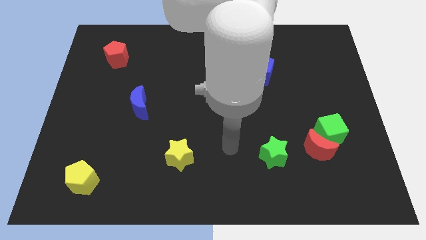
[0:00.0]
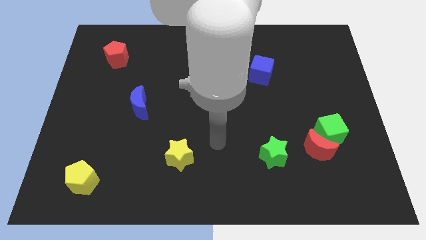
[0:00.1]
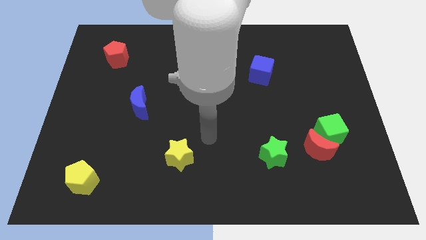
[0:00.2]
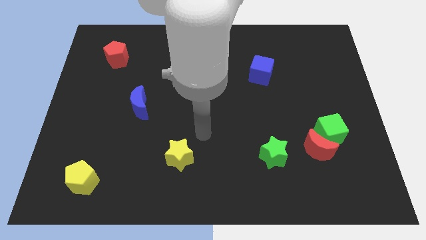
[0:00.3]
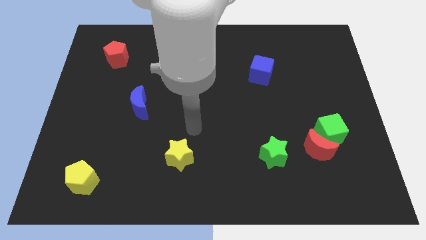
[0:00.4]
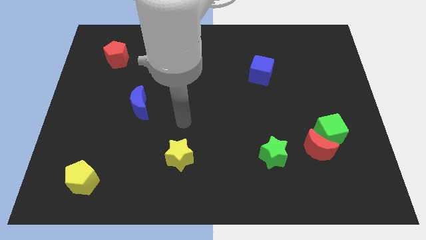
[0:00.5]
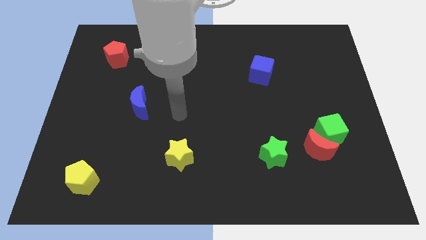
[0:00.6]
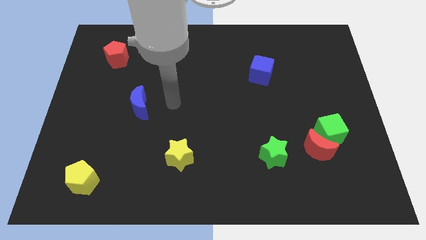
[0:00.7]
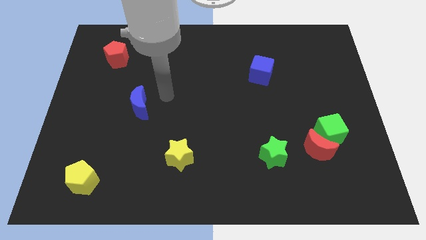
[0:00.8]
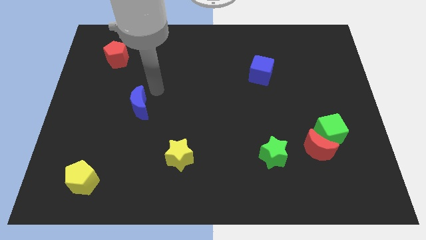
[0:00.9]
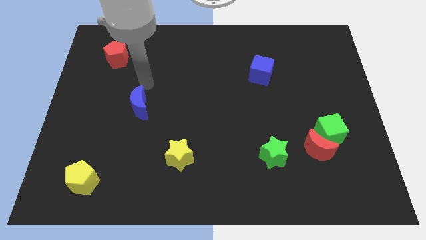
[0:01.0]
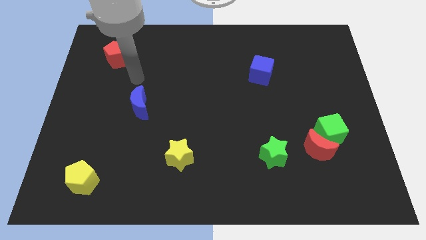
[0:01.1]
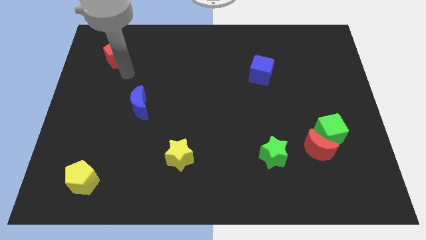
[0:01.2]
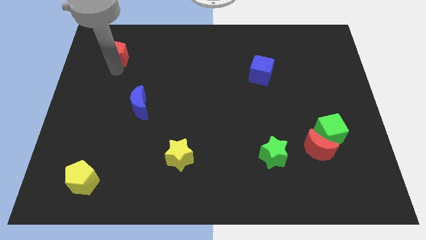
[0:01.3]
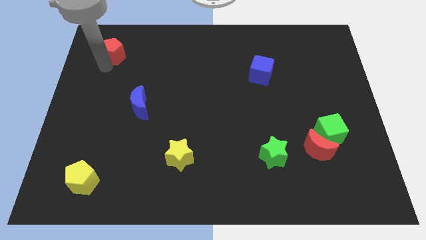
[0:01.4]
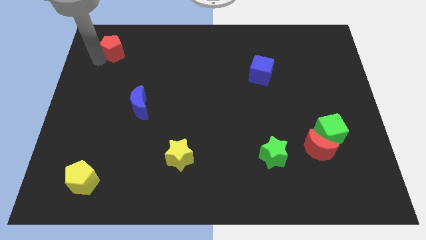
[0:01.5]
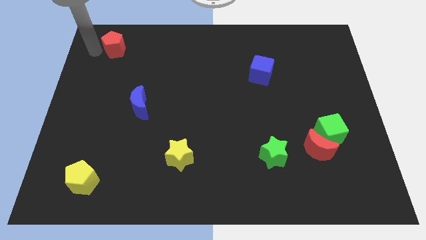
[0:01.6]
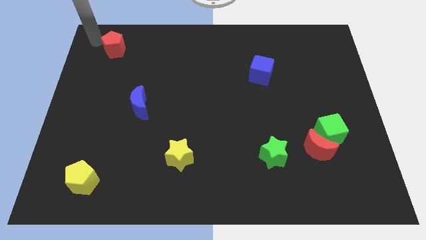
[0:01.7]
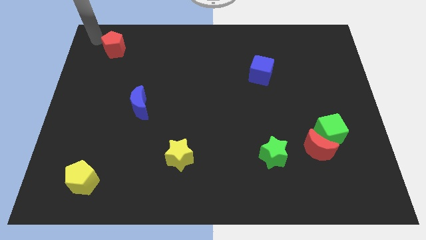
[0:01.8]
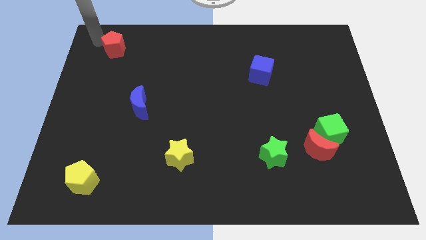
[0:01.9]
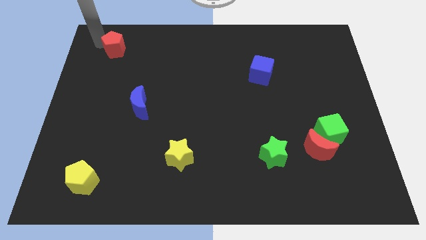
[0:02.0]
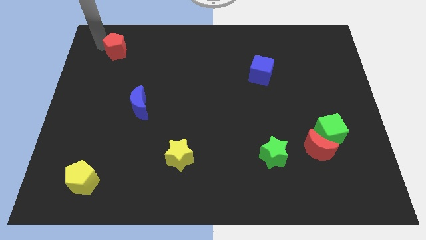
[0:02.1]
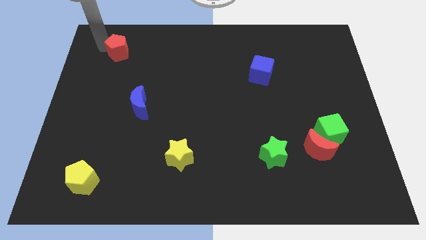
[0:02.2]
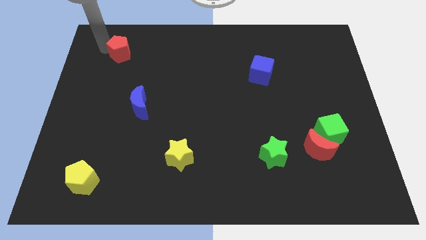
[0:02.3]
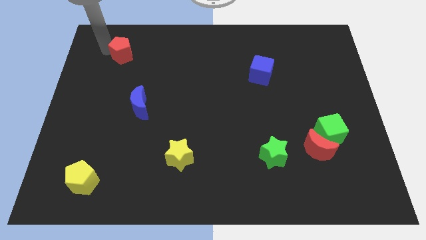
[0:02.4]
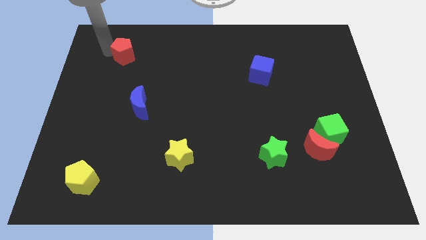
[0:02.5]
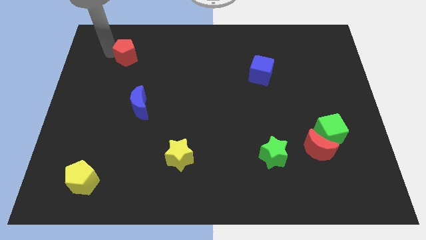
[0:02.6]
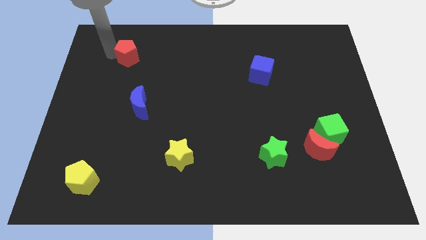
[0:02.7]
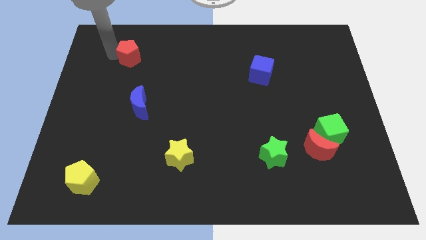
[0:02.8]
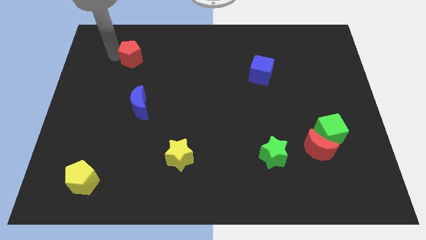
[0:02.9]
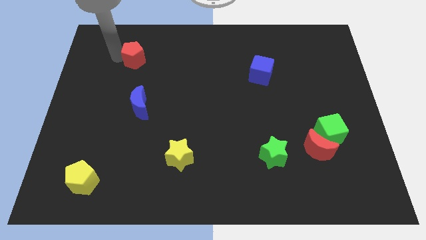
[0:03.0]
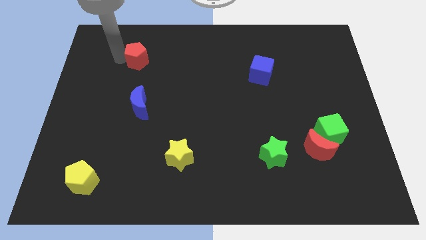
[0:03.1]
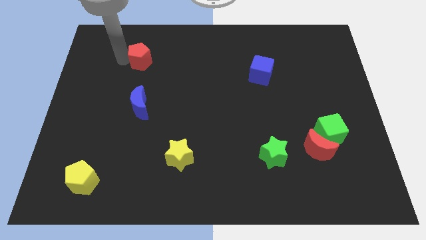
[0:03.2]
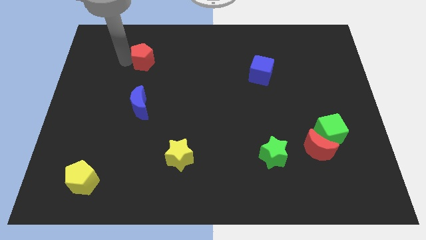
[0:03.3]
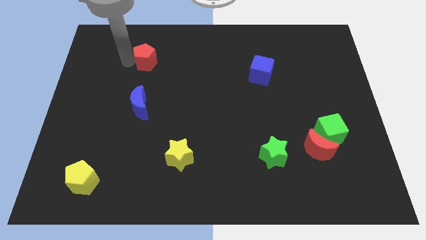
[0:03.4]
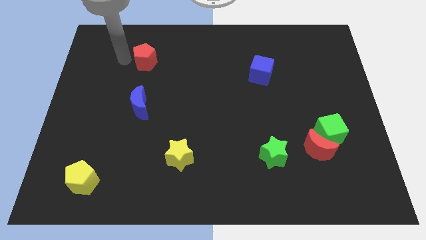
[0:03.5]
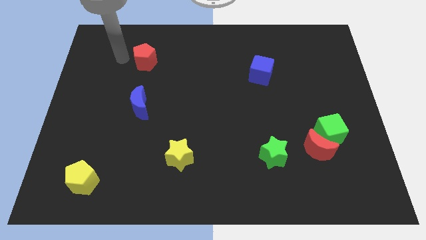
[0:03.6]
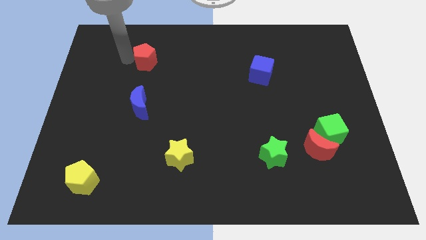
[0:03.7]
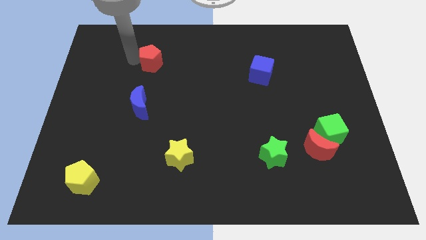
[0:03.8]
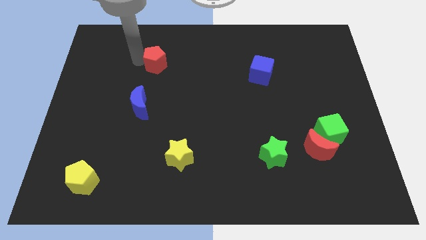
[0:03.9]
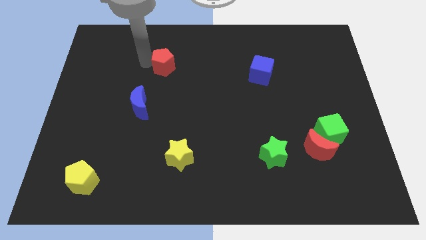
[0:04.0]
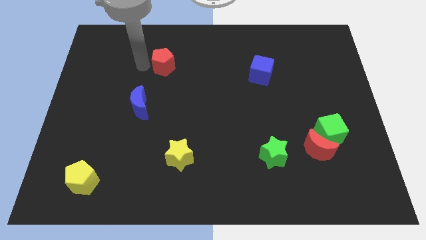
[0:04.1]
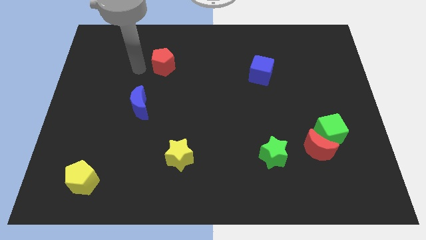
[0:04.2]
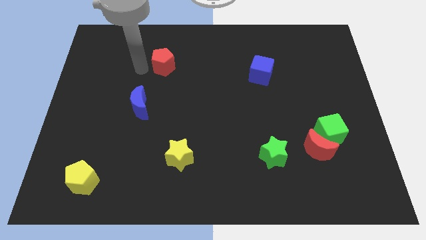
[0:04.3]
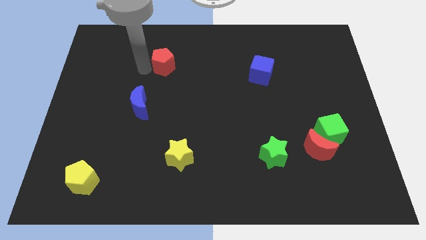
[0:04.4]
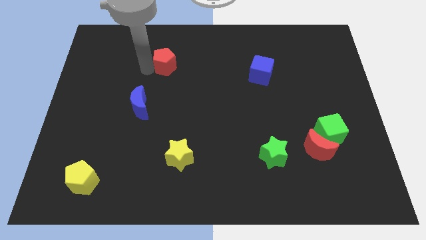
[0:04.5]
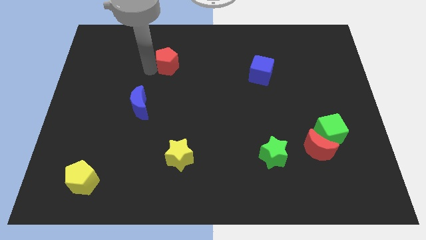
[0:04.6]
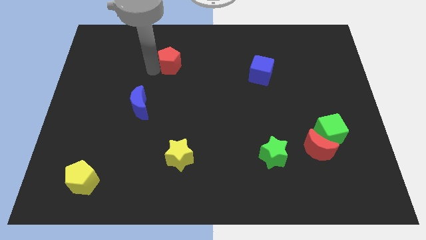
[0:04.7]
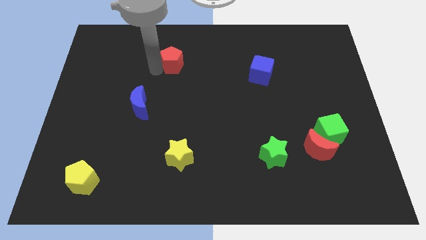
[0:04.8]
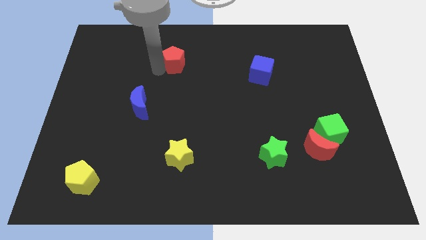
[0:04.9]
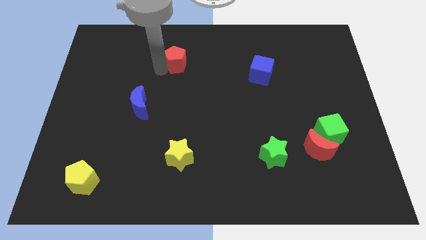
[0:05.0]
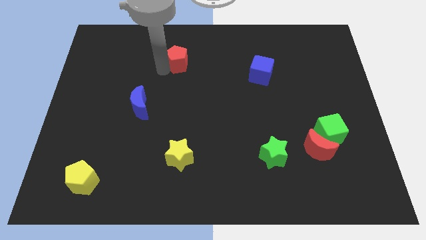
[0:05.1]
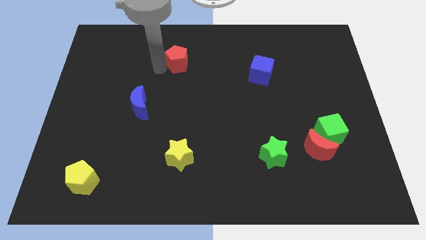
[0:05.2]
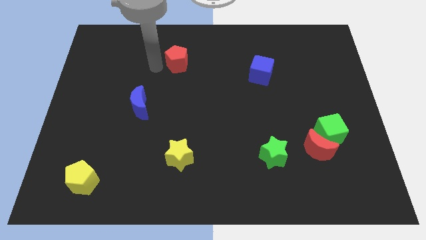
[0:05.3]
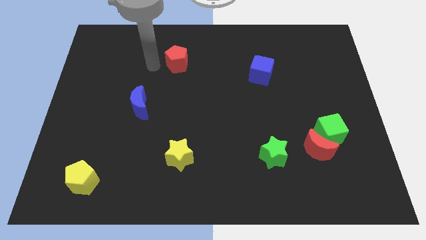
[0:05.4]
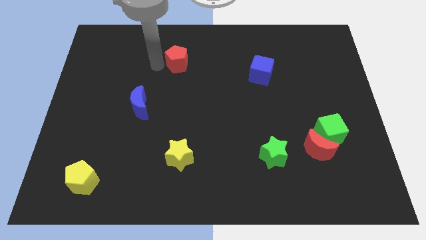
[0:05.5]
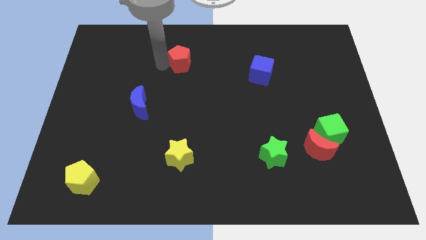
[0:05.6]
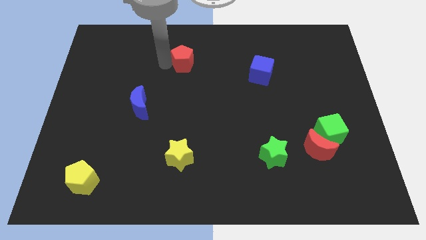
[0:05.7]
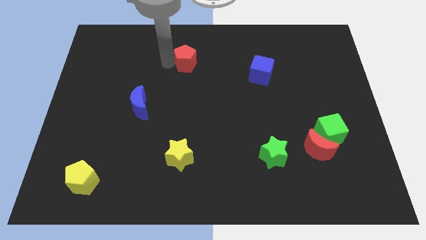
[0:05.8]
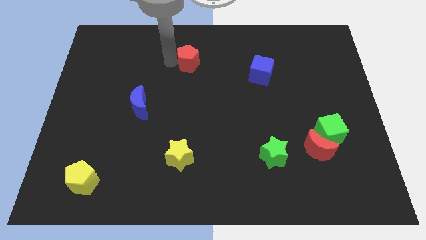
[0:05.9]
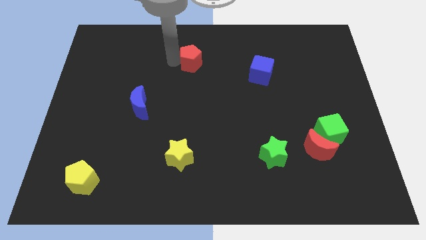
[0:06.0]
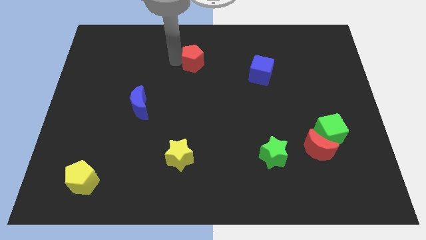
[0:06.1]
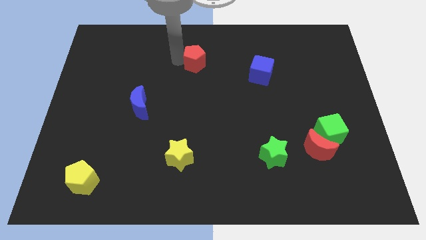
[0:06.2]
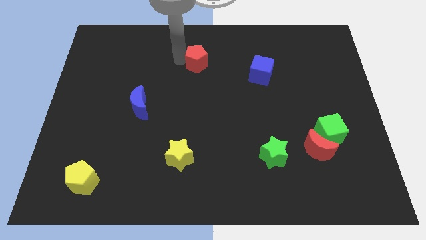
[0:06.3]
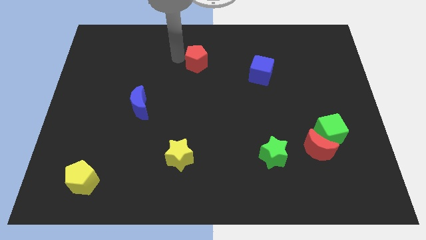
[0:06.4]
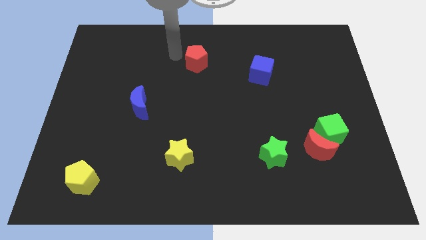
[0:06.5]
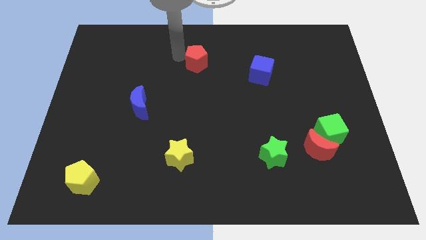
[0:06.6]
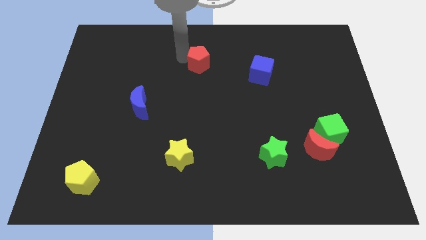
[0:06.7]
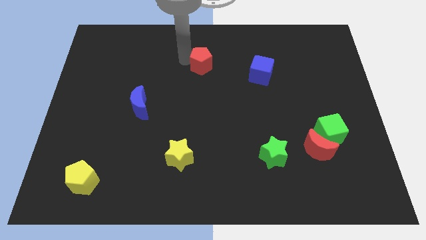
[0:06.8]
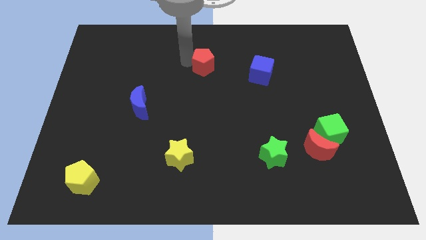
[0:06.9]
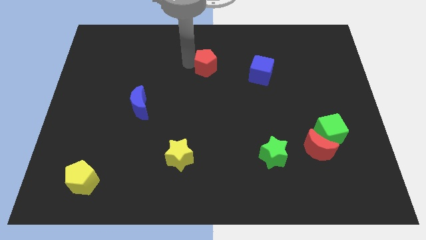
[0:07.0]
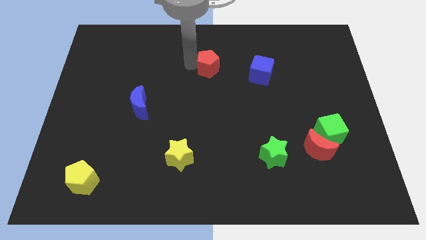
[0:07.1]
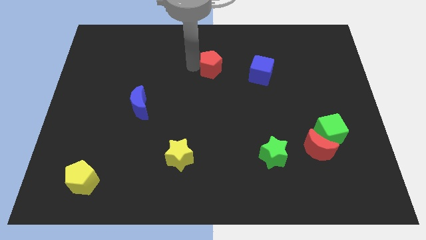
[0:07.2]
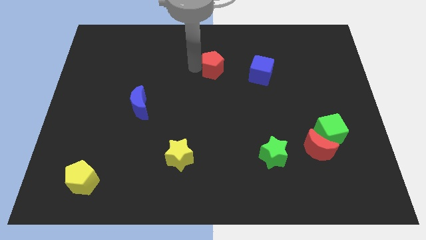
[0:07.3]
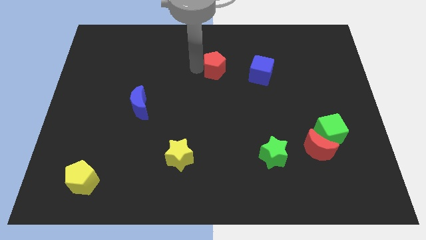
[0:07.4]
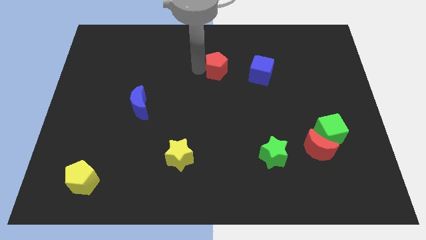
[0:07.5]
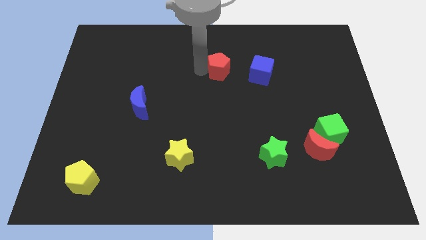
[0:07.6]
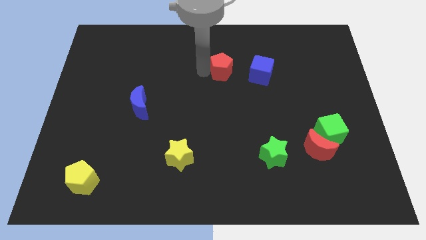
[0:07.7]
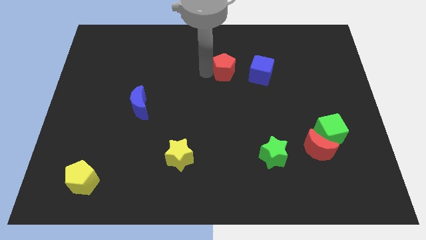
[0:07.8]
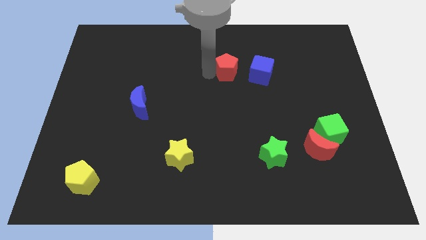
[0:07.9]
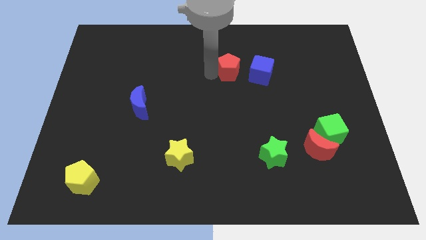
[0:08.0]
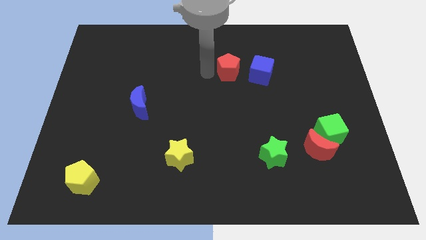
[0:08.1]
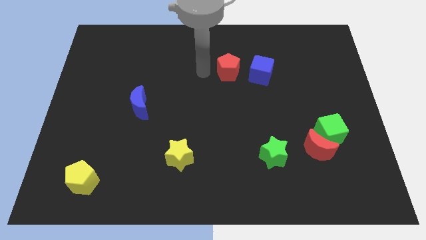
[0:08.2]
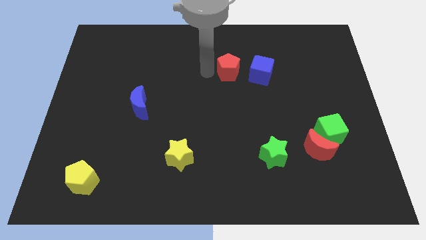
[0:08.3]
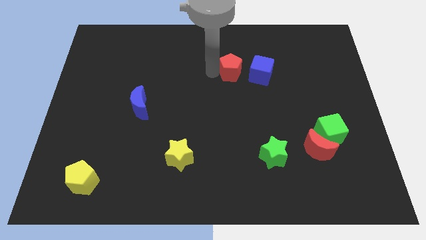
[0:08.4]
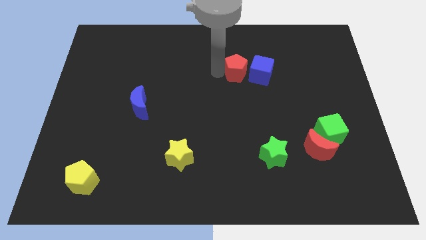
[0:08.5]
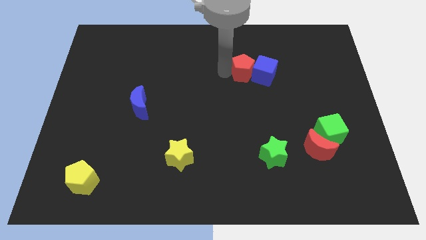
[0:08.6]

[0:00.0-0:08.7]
push the red pentagon towards the blue cube
